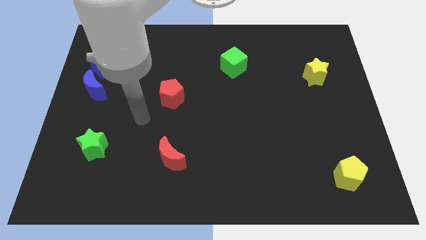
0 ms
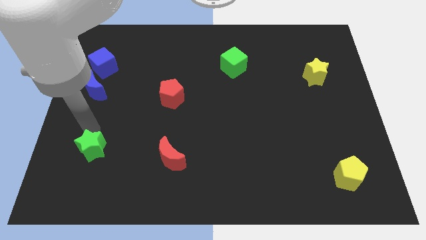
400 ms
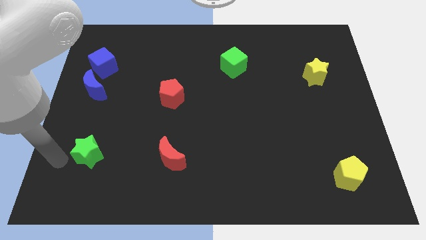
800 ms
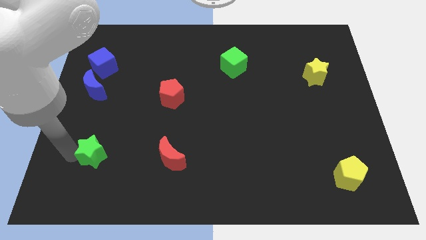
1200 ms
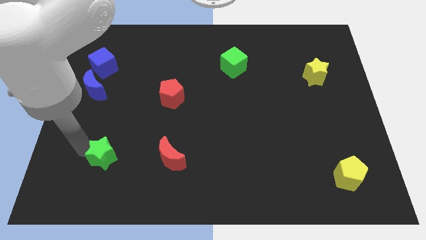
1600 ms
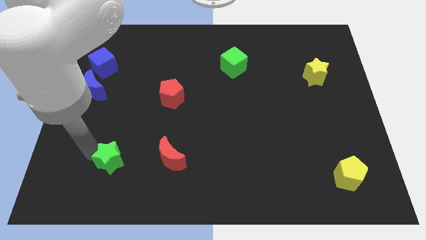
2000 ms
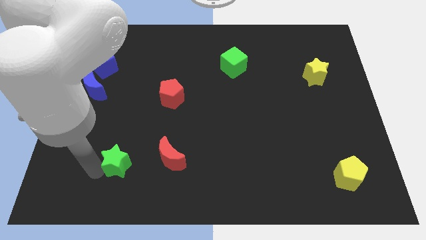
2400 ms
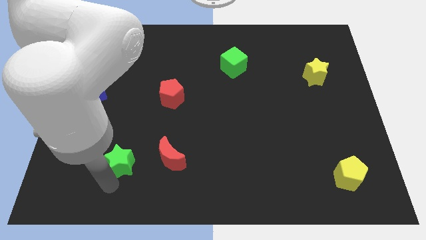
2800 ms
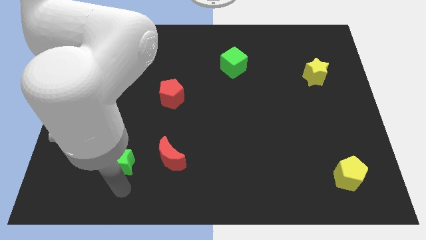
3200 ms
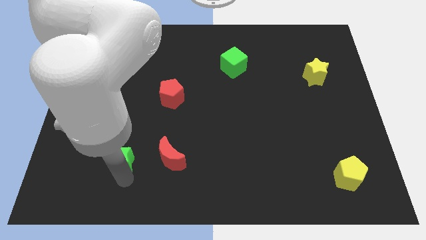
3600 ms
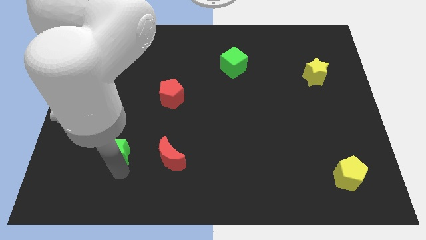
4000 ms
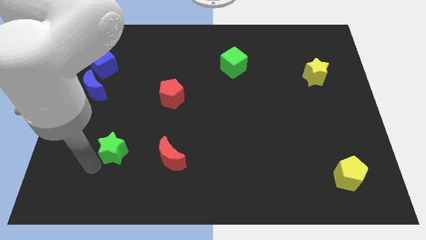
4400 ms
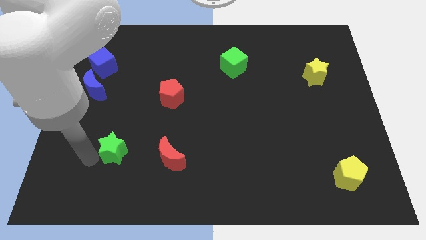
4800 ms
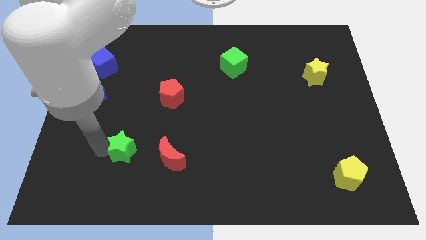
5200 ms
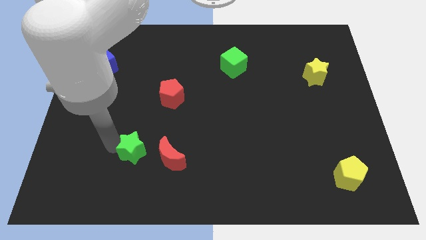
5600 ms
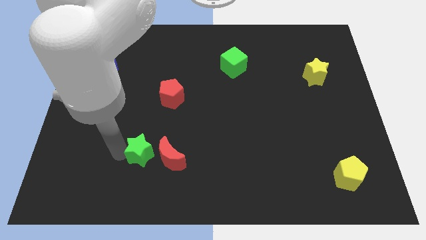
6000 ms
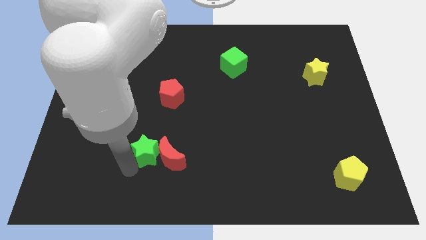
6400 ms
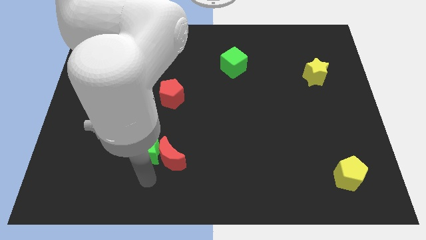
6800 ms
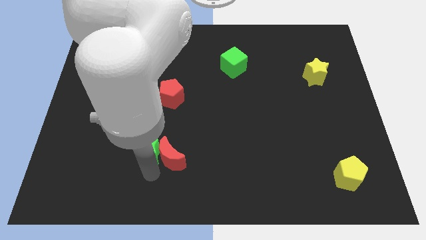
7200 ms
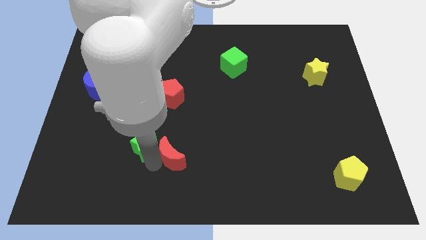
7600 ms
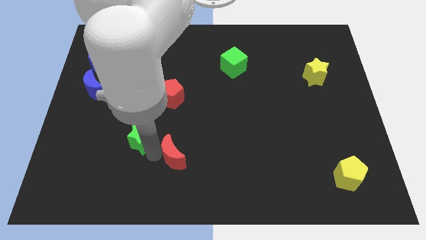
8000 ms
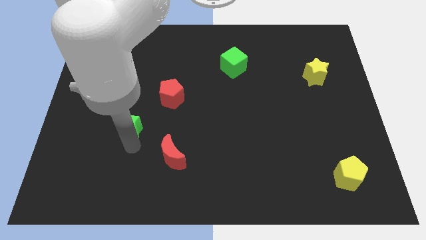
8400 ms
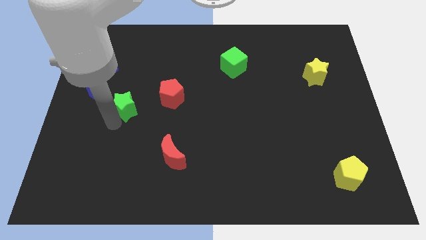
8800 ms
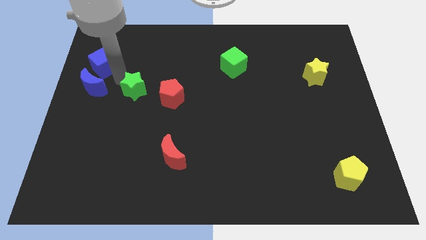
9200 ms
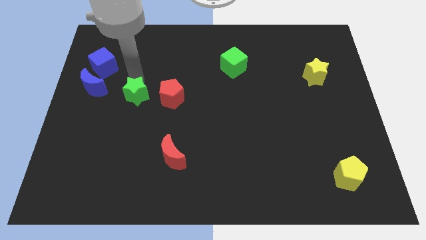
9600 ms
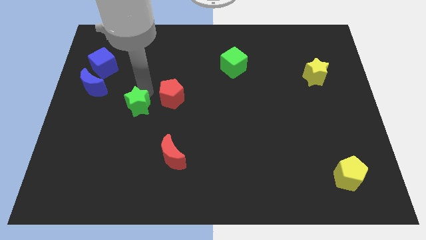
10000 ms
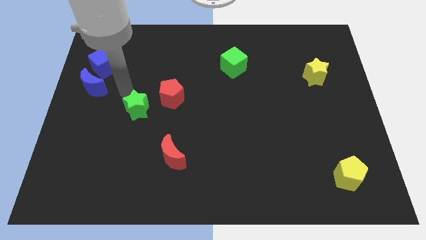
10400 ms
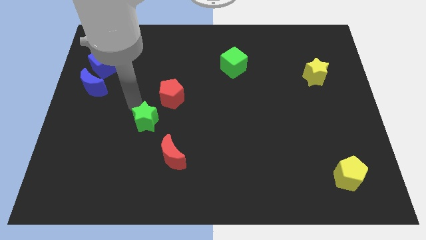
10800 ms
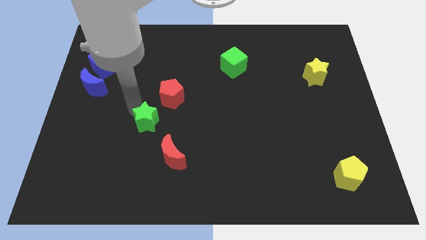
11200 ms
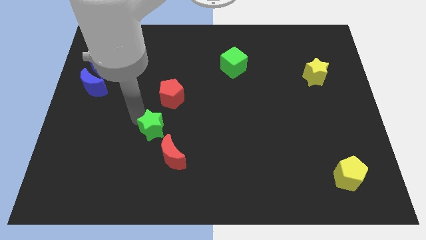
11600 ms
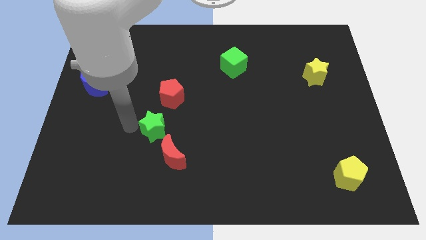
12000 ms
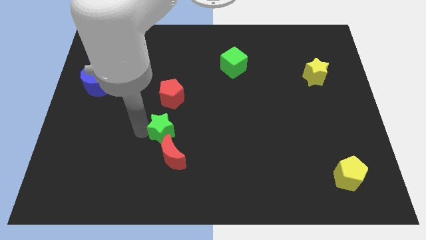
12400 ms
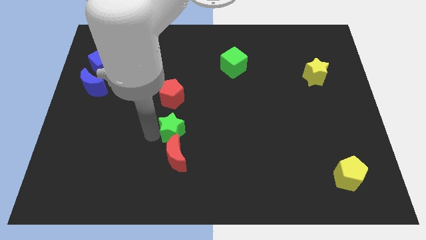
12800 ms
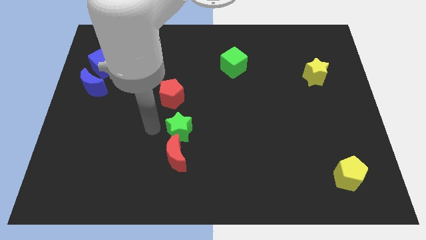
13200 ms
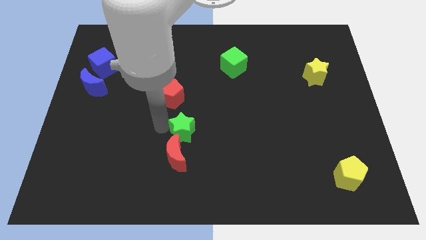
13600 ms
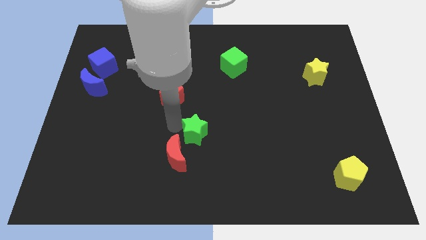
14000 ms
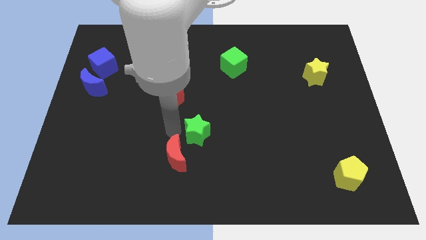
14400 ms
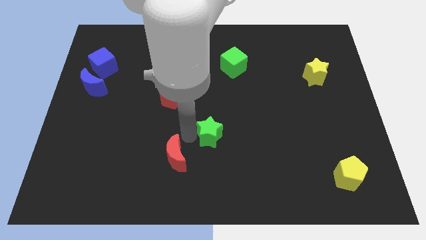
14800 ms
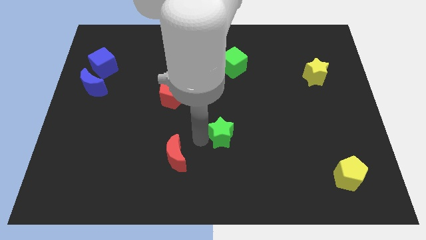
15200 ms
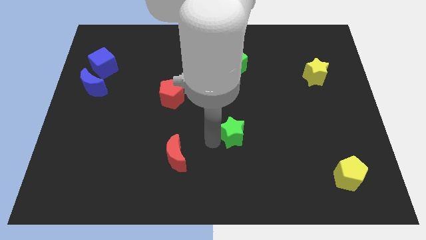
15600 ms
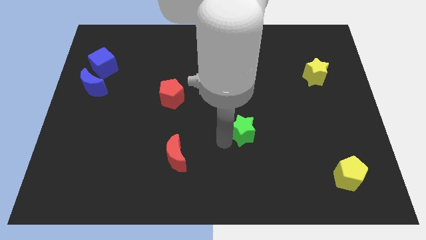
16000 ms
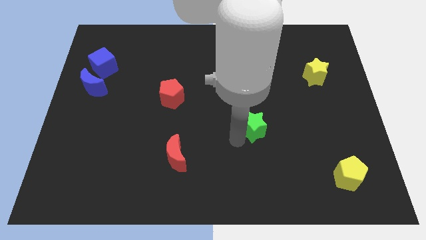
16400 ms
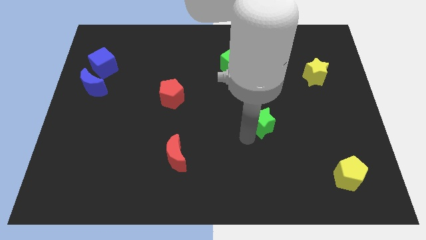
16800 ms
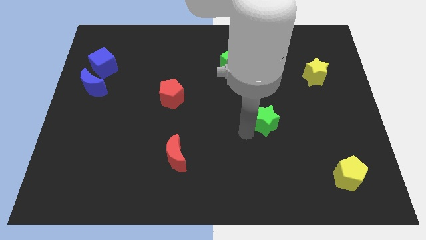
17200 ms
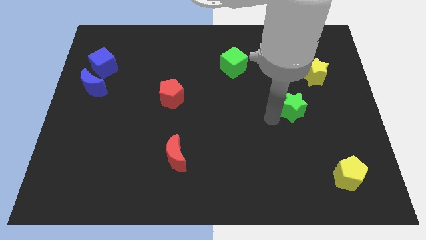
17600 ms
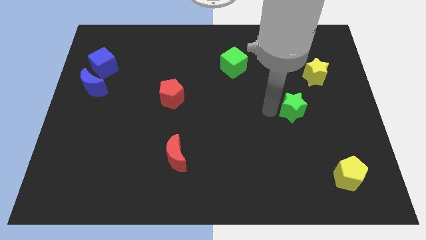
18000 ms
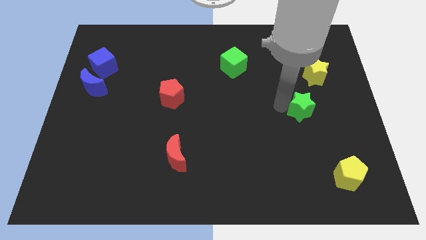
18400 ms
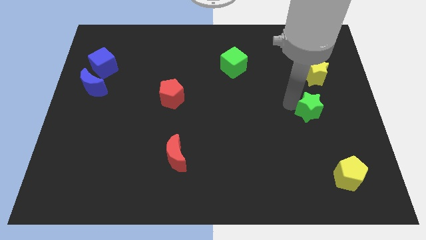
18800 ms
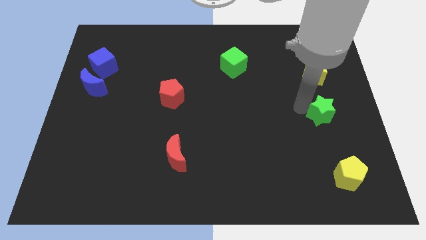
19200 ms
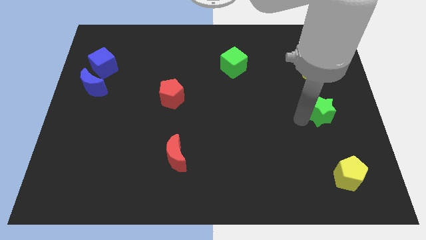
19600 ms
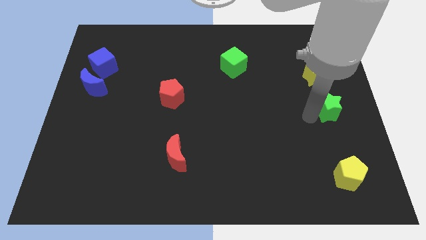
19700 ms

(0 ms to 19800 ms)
put the green star to the right side

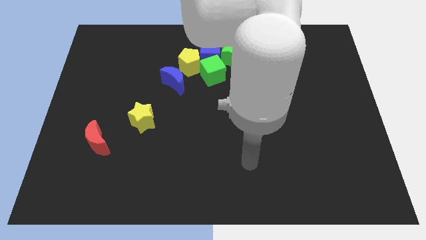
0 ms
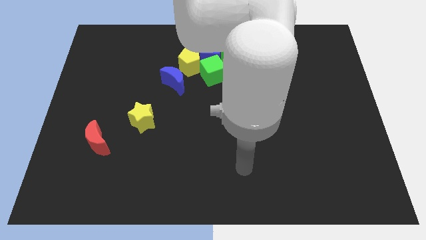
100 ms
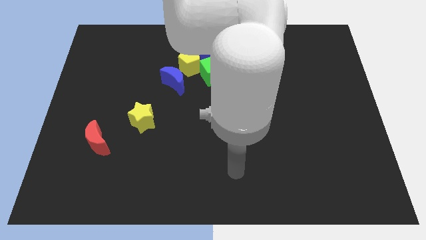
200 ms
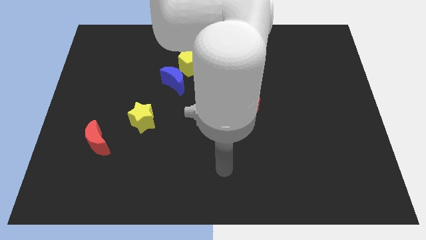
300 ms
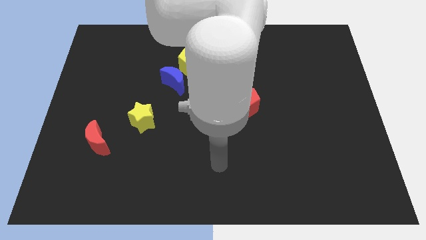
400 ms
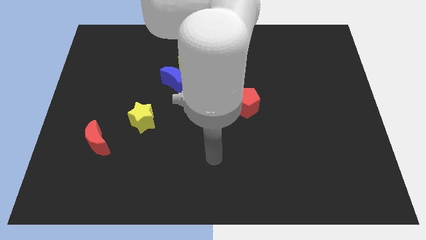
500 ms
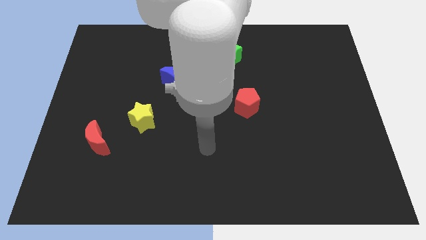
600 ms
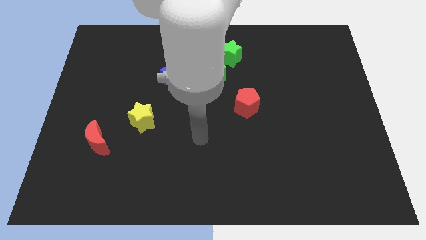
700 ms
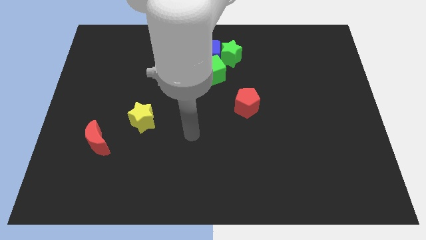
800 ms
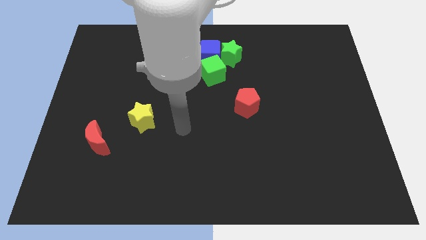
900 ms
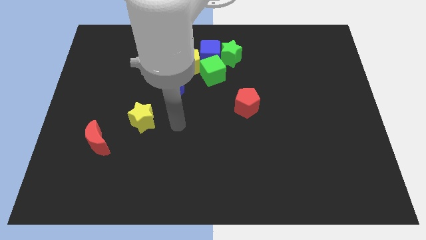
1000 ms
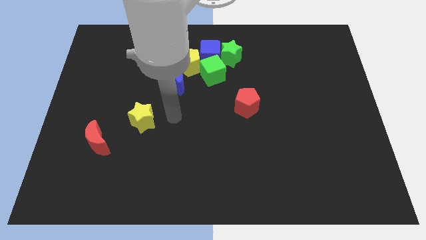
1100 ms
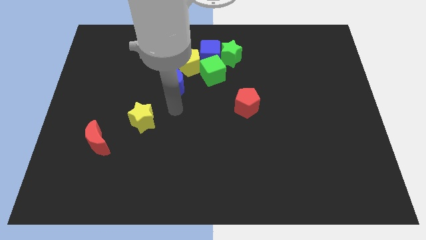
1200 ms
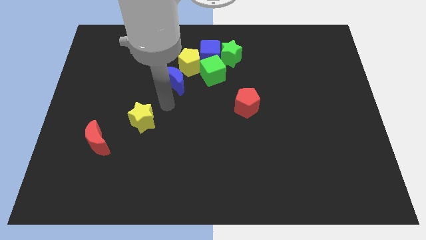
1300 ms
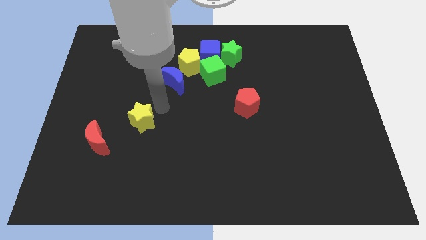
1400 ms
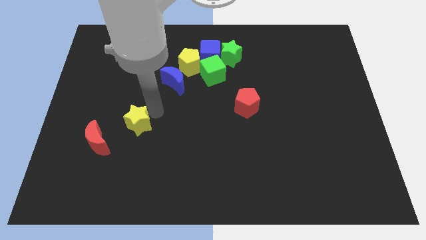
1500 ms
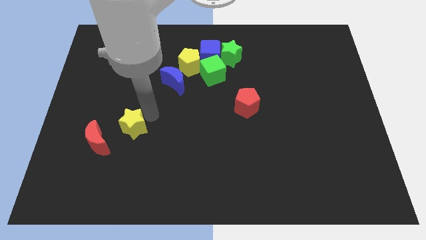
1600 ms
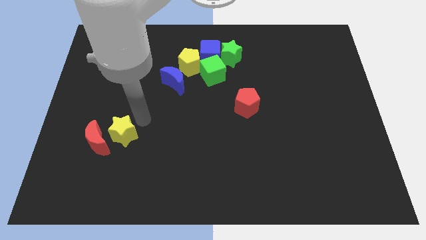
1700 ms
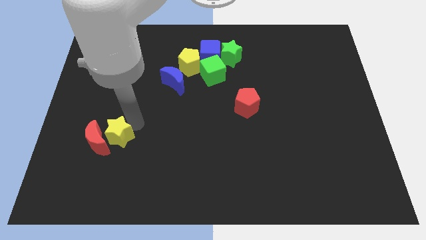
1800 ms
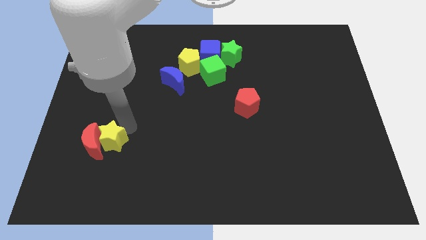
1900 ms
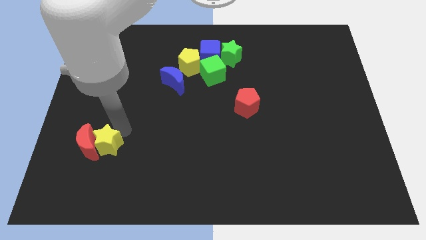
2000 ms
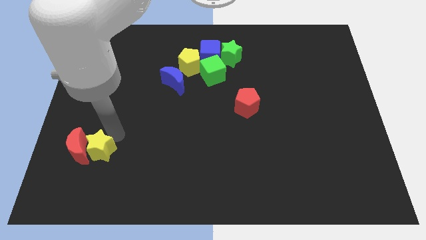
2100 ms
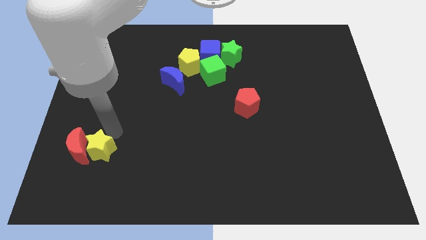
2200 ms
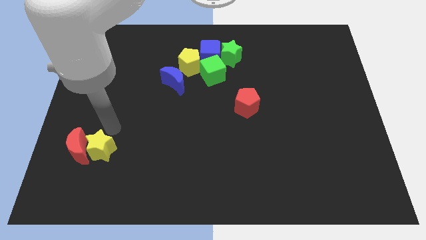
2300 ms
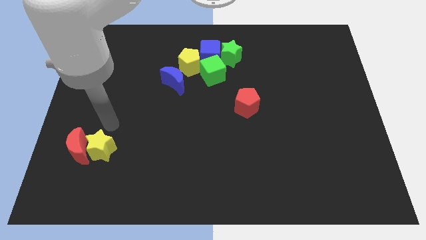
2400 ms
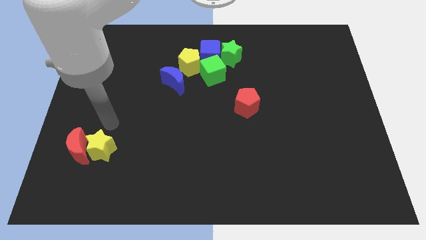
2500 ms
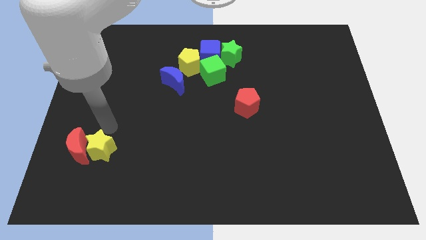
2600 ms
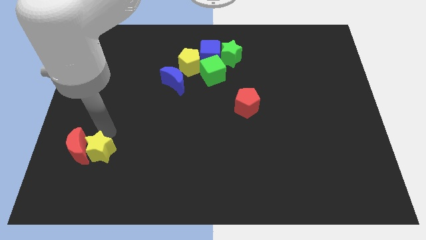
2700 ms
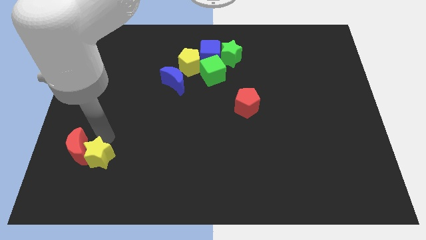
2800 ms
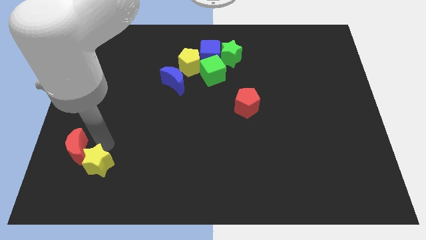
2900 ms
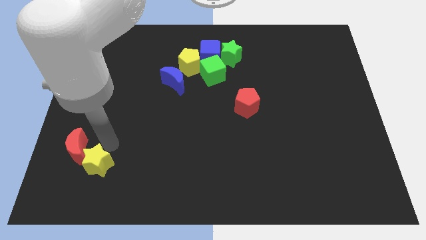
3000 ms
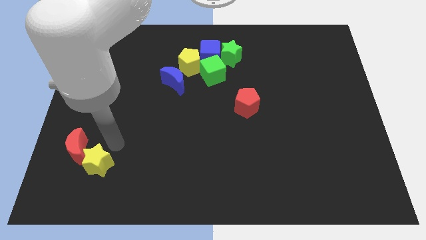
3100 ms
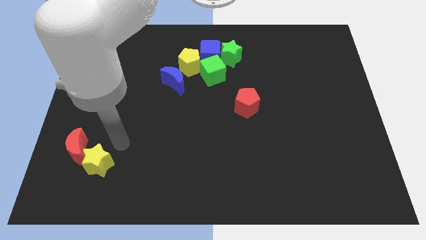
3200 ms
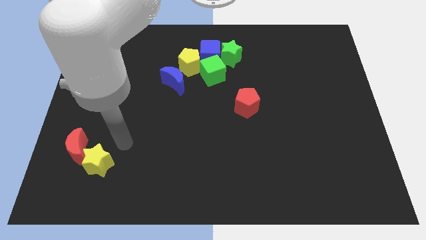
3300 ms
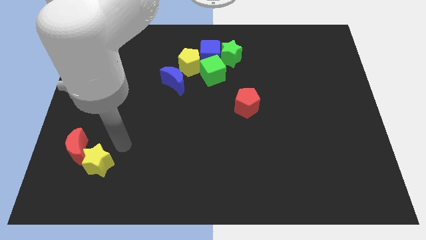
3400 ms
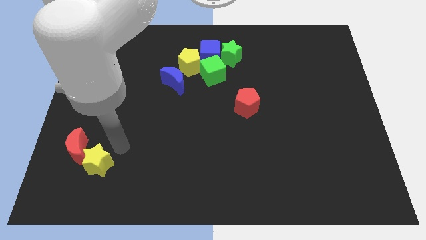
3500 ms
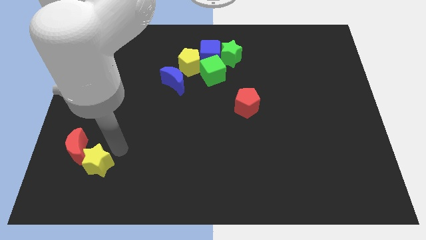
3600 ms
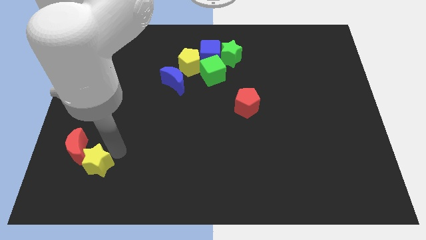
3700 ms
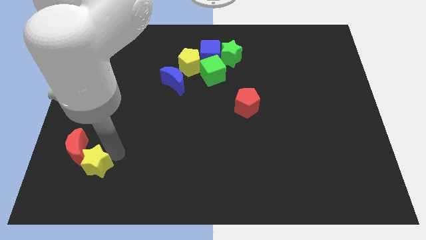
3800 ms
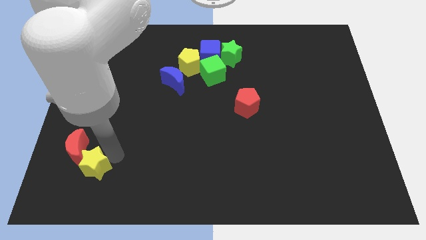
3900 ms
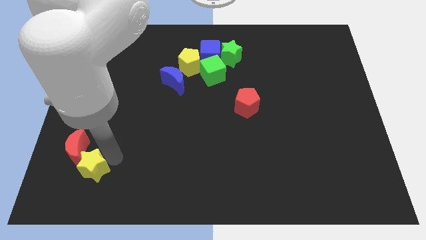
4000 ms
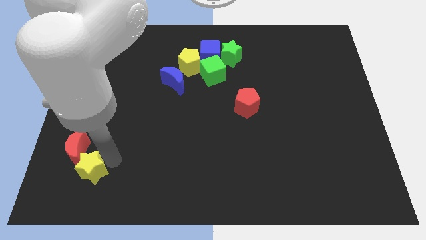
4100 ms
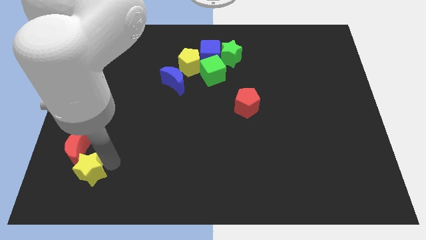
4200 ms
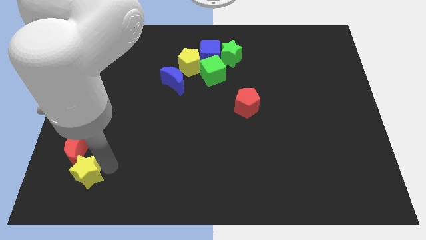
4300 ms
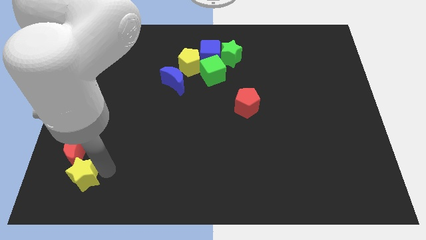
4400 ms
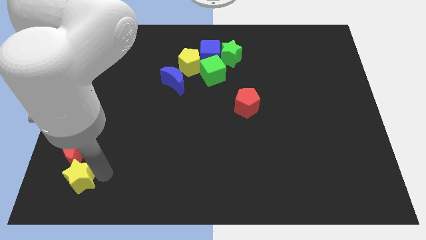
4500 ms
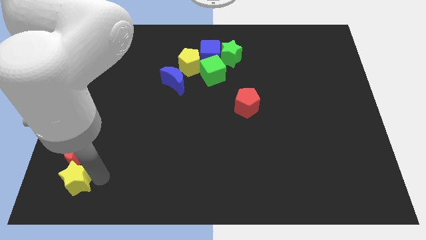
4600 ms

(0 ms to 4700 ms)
slide the yellow star to the bottom left of the board
